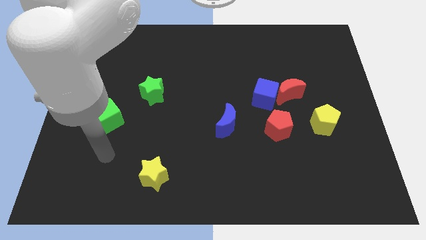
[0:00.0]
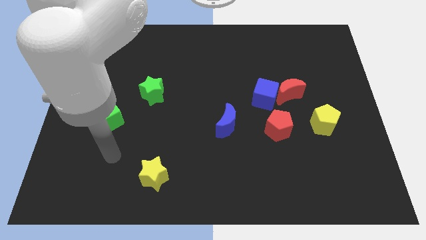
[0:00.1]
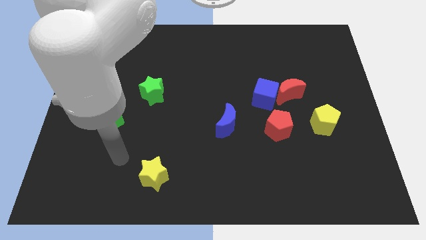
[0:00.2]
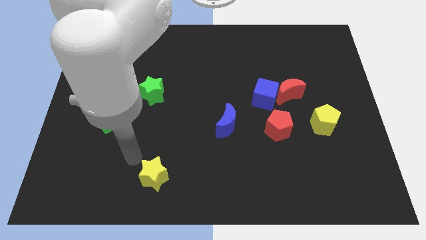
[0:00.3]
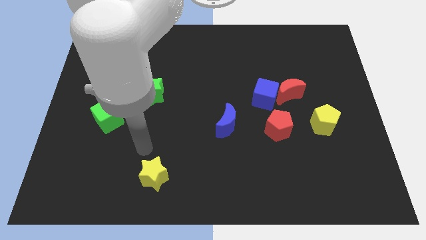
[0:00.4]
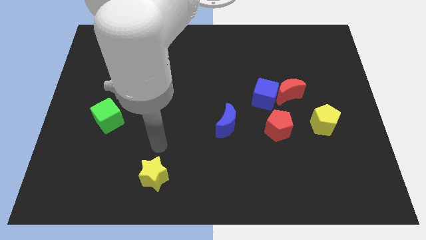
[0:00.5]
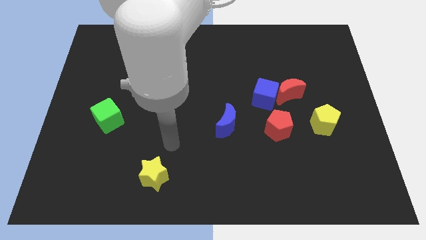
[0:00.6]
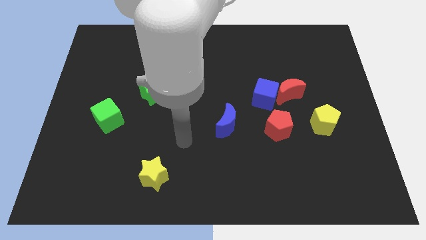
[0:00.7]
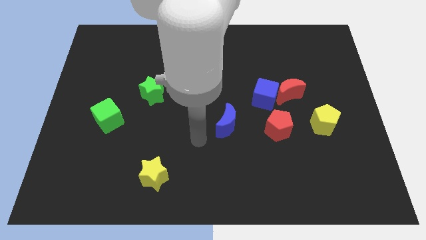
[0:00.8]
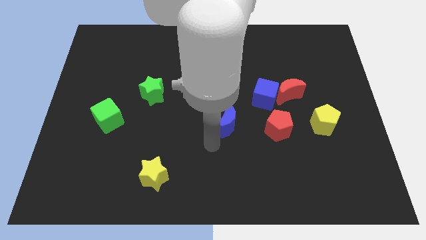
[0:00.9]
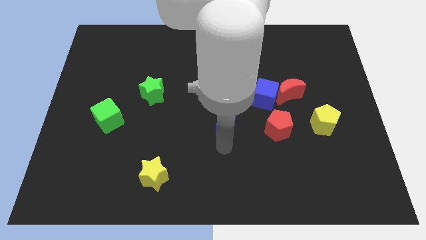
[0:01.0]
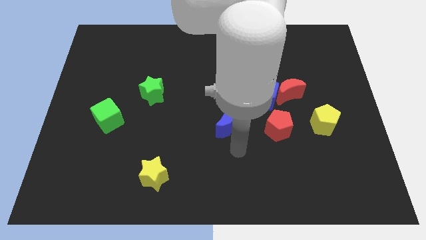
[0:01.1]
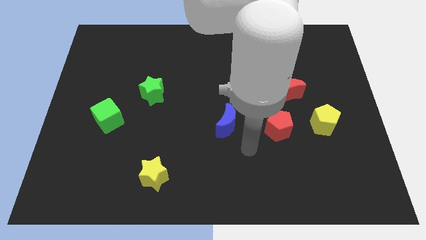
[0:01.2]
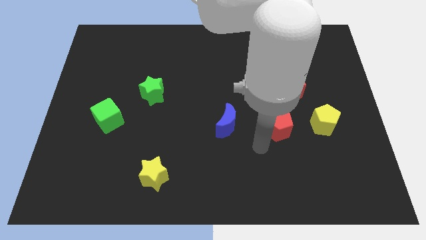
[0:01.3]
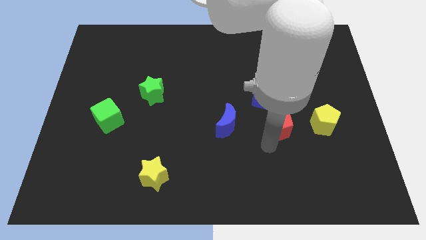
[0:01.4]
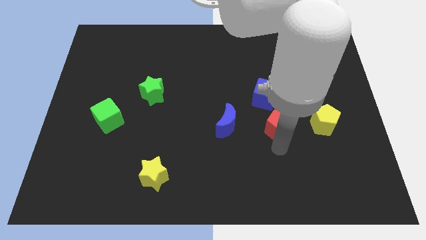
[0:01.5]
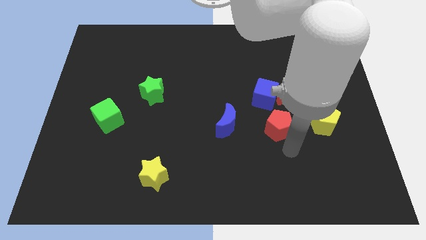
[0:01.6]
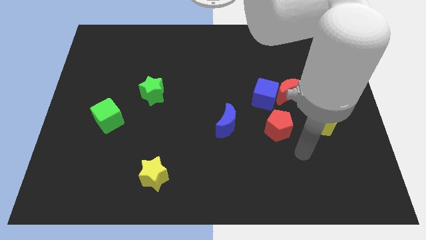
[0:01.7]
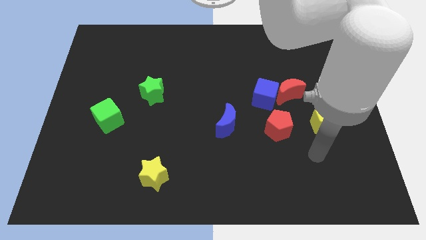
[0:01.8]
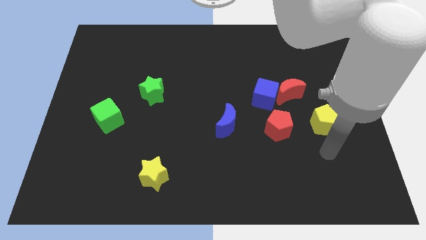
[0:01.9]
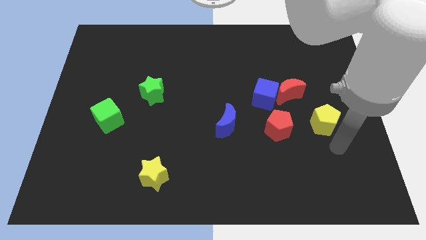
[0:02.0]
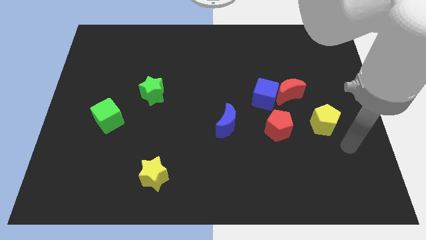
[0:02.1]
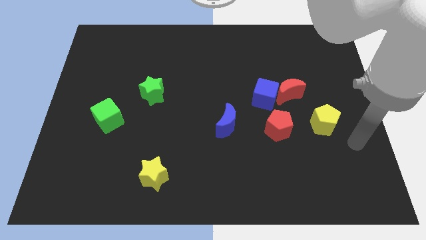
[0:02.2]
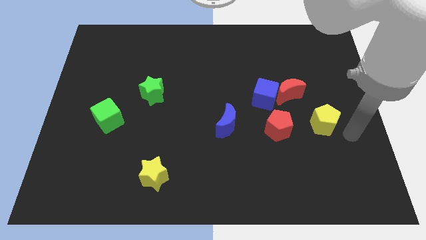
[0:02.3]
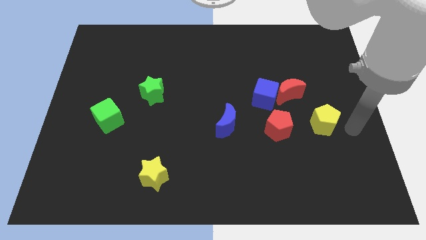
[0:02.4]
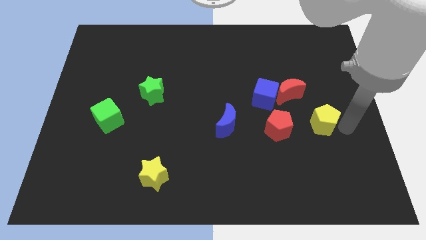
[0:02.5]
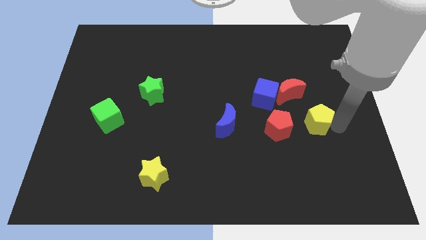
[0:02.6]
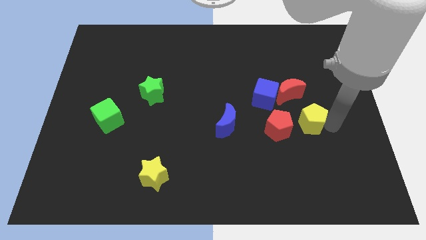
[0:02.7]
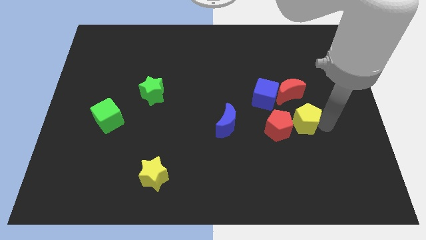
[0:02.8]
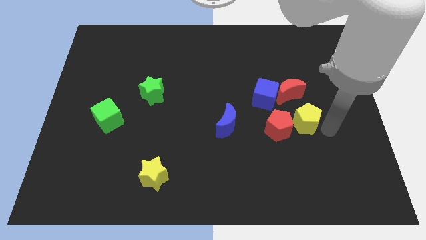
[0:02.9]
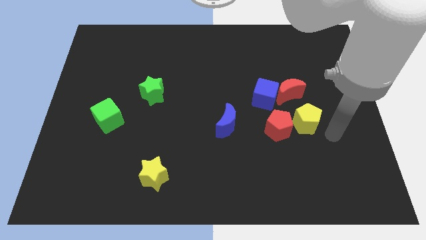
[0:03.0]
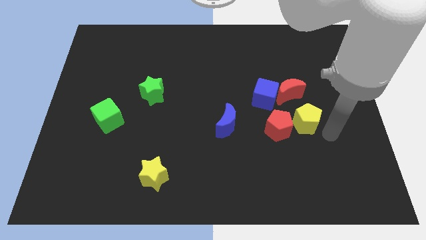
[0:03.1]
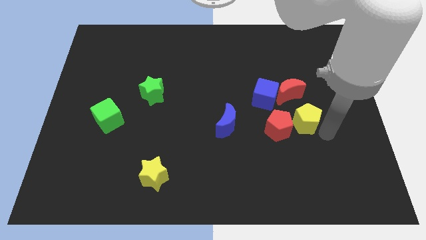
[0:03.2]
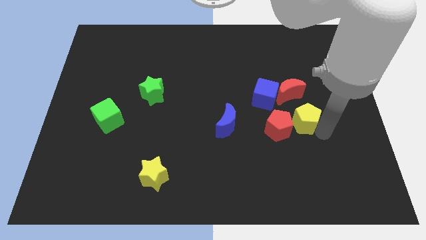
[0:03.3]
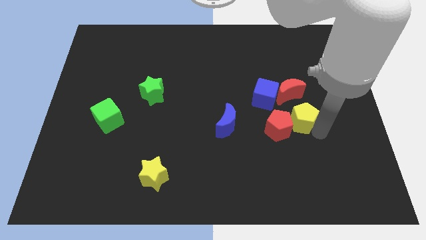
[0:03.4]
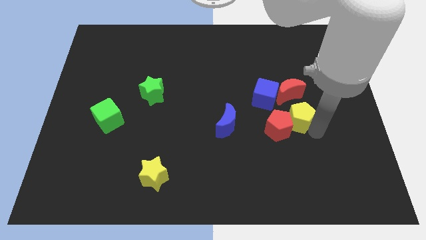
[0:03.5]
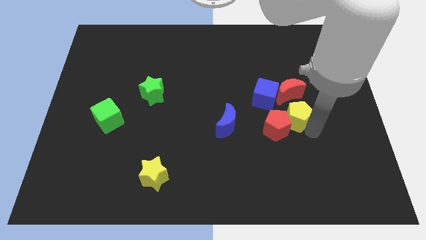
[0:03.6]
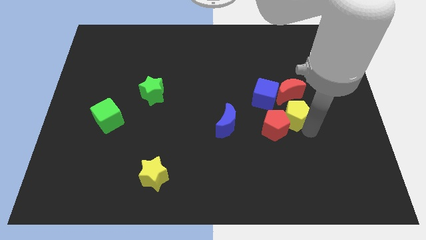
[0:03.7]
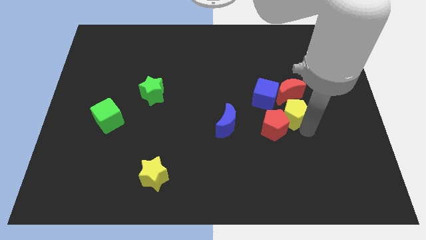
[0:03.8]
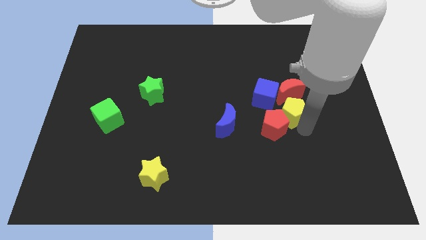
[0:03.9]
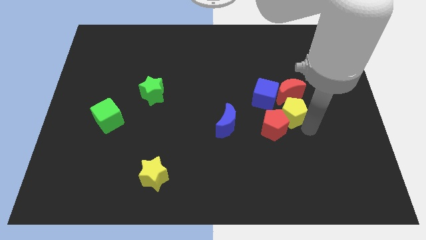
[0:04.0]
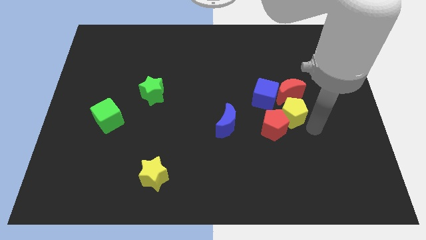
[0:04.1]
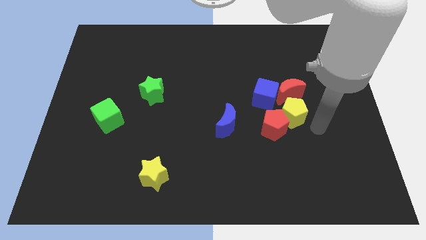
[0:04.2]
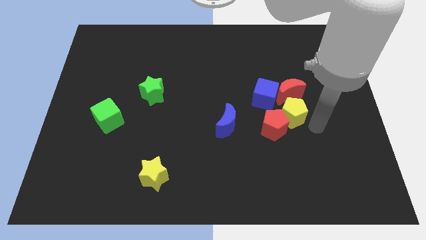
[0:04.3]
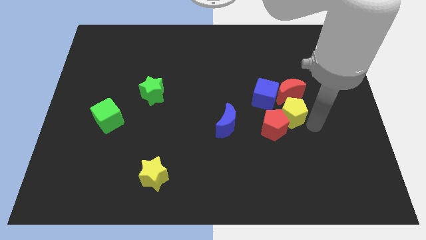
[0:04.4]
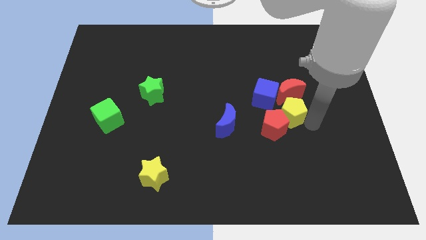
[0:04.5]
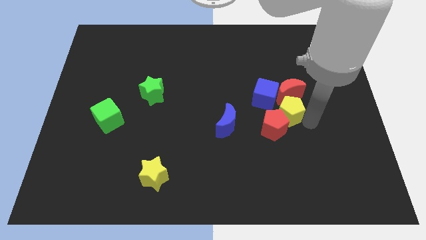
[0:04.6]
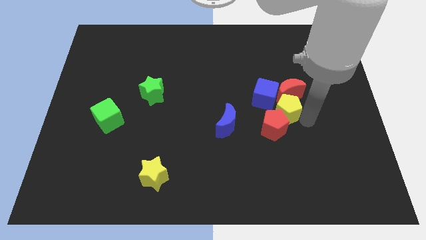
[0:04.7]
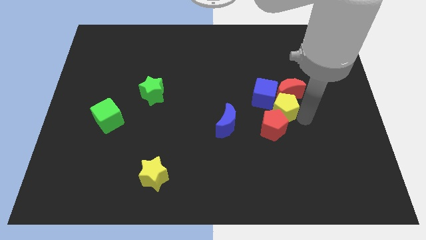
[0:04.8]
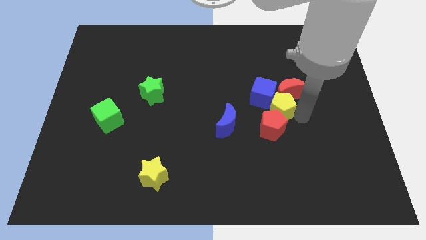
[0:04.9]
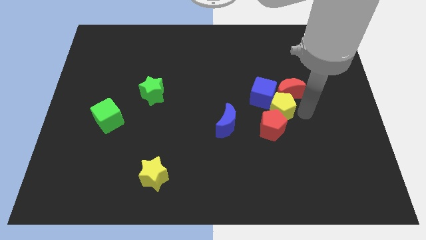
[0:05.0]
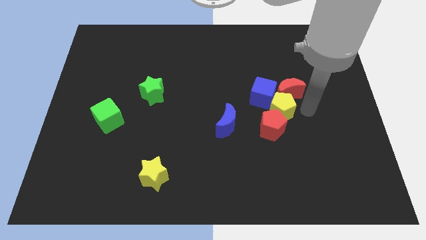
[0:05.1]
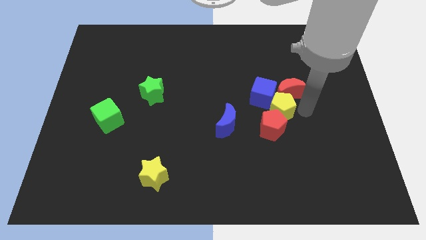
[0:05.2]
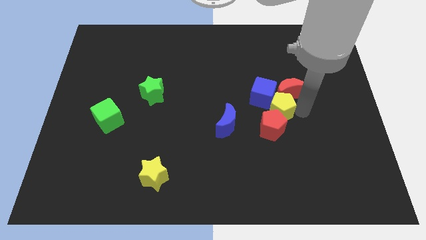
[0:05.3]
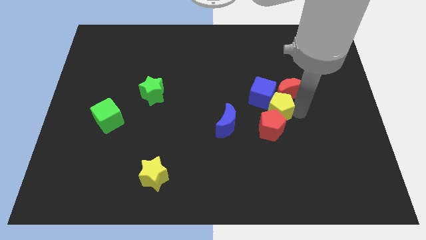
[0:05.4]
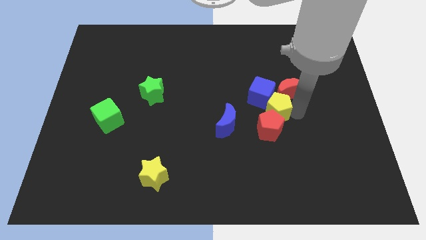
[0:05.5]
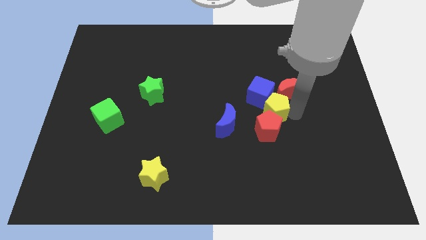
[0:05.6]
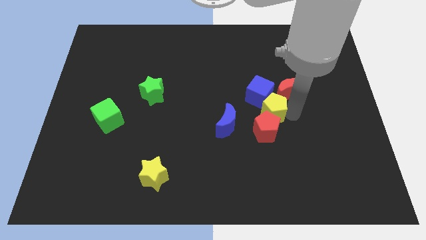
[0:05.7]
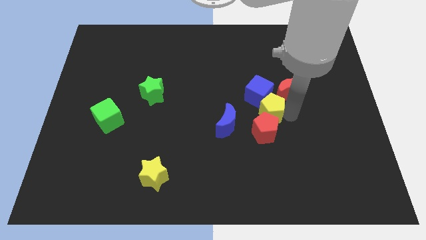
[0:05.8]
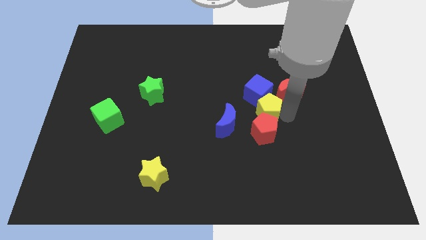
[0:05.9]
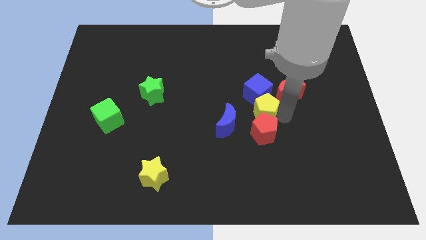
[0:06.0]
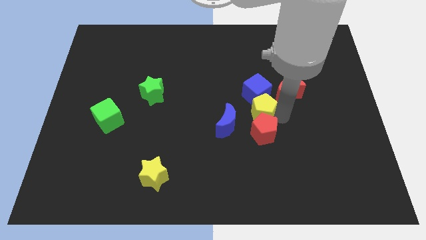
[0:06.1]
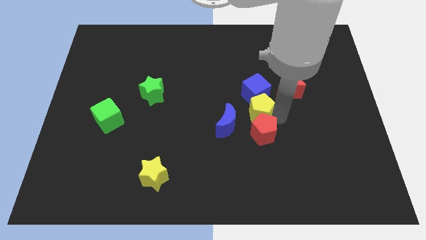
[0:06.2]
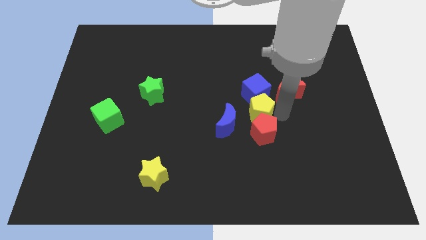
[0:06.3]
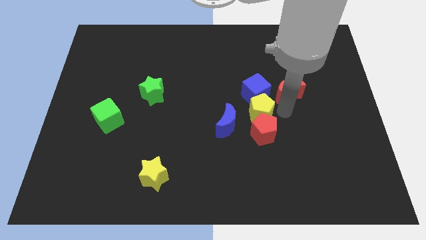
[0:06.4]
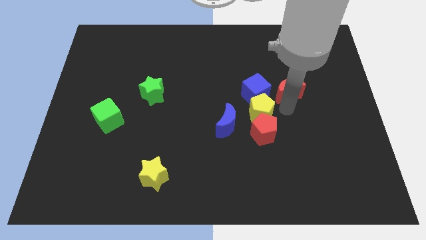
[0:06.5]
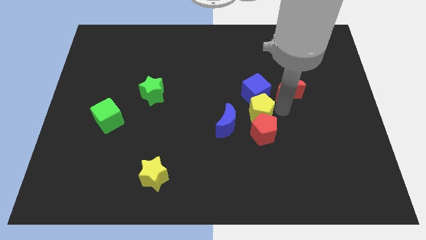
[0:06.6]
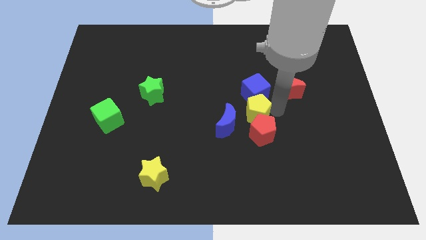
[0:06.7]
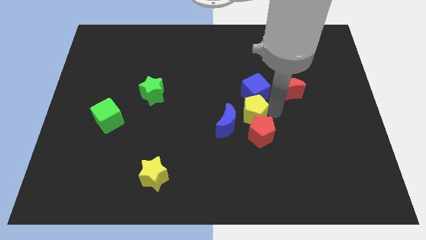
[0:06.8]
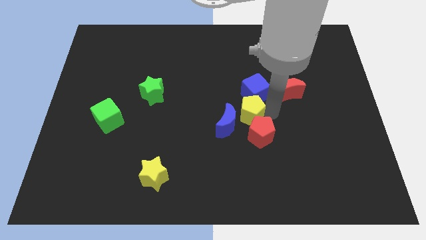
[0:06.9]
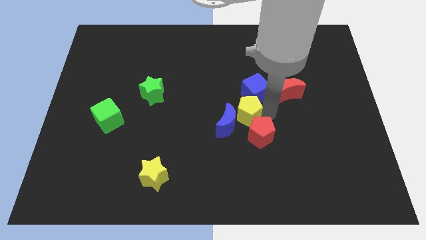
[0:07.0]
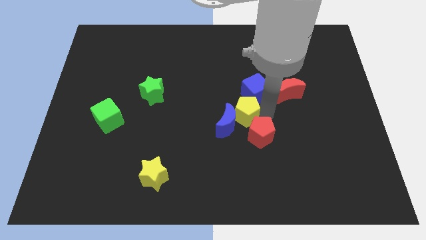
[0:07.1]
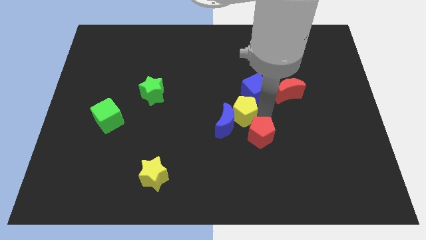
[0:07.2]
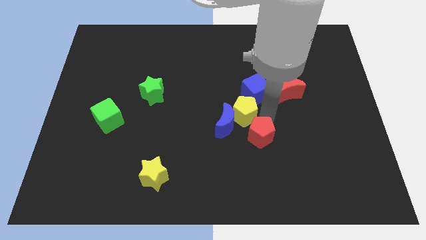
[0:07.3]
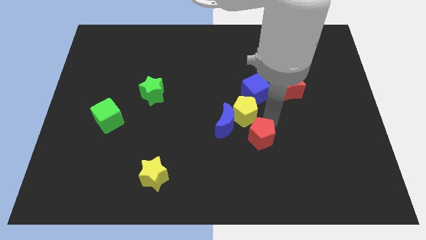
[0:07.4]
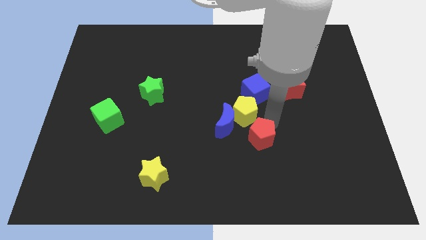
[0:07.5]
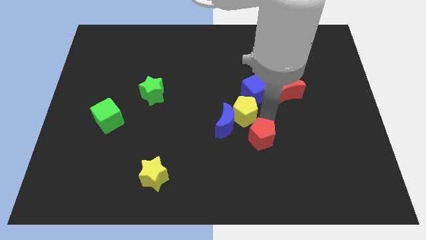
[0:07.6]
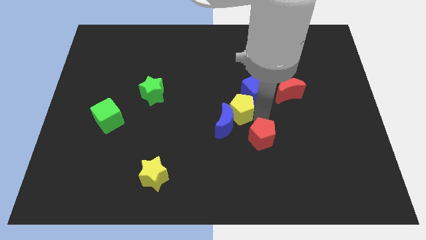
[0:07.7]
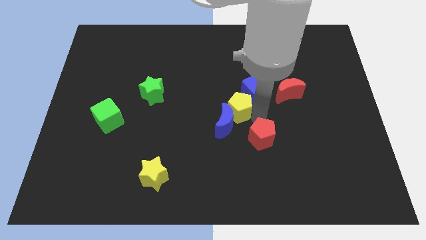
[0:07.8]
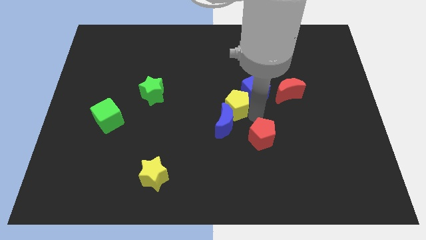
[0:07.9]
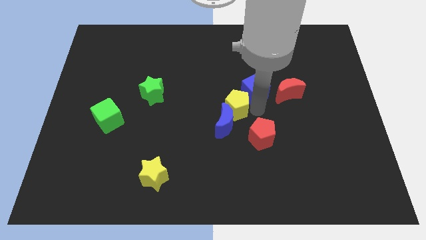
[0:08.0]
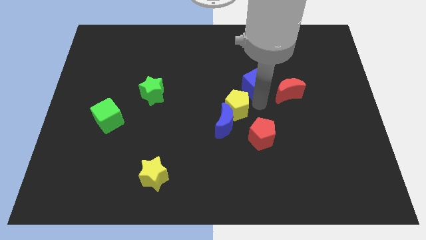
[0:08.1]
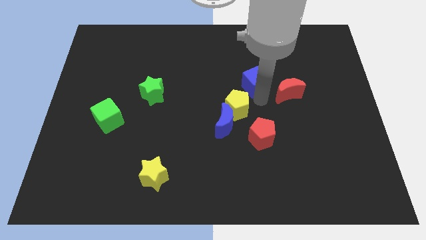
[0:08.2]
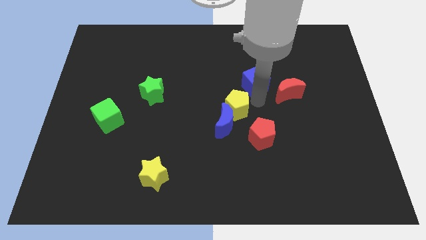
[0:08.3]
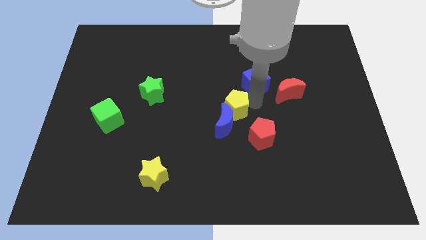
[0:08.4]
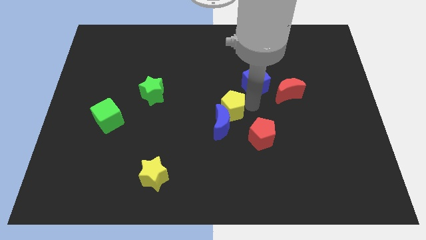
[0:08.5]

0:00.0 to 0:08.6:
slide the yellow pentagon to the left
